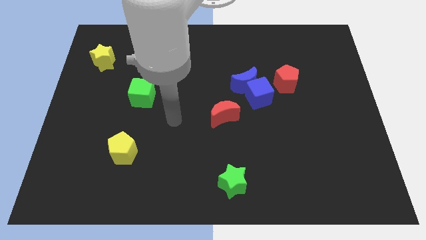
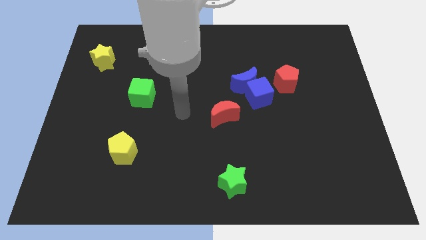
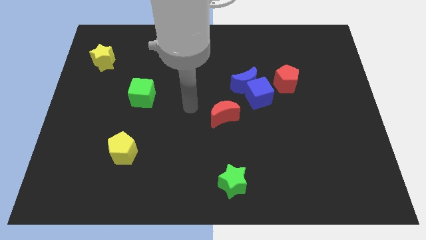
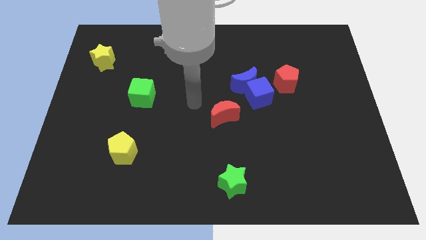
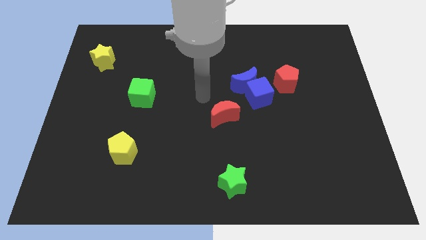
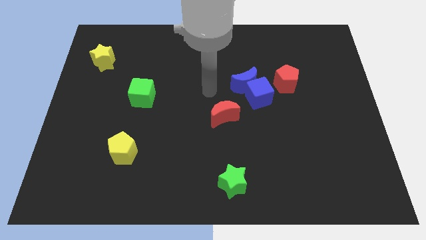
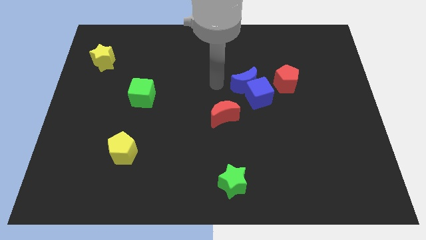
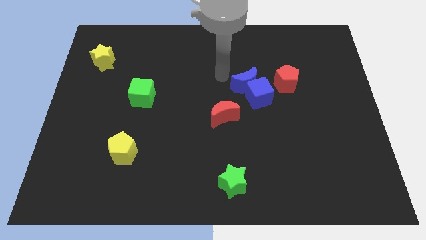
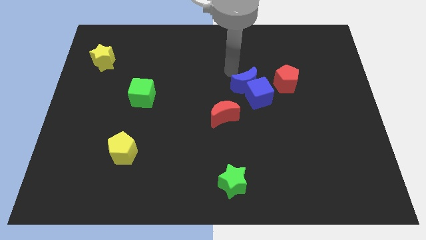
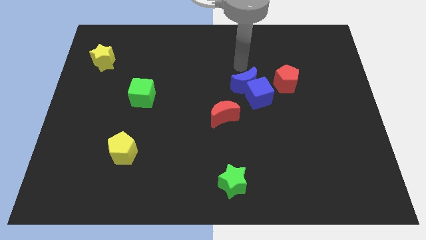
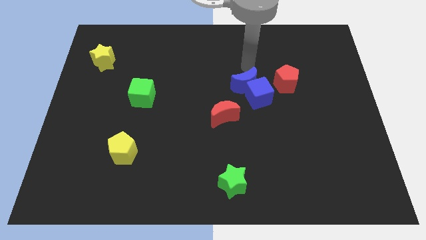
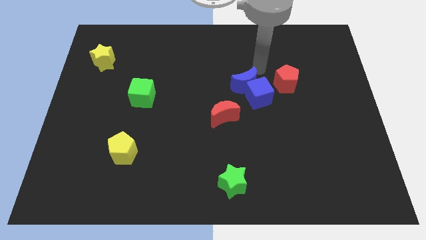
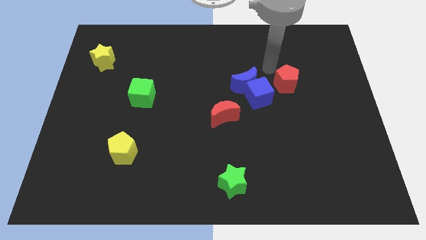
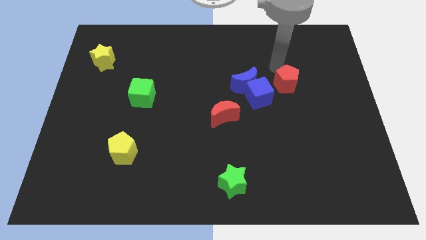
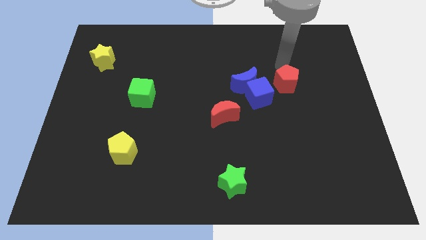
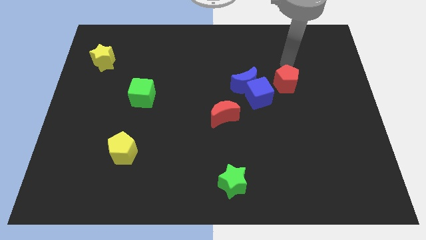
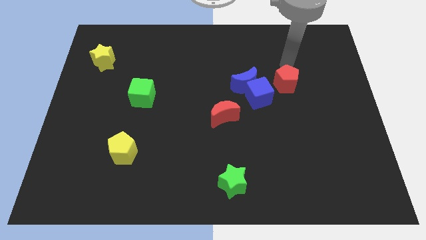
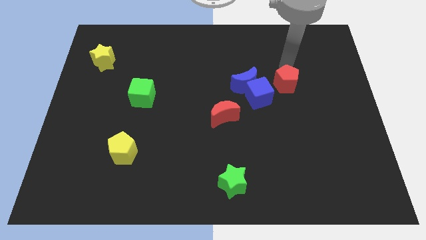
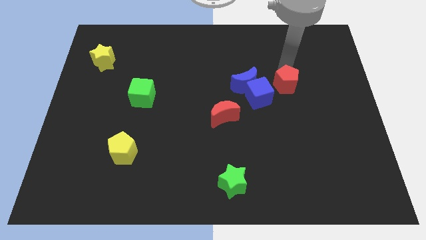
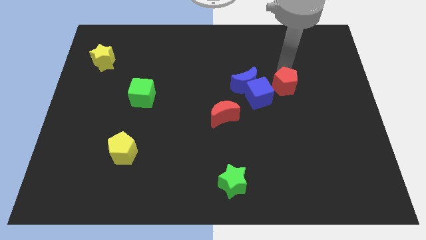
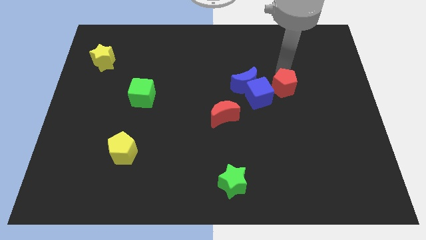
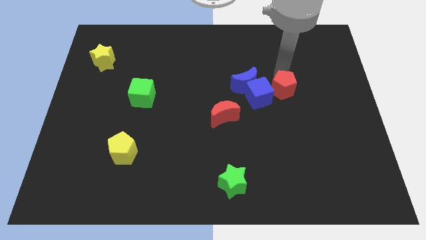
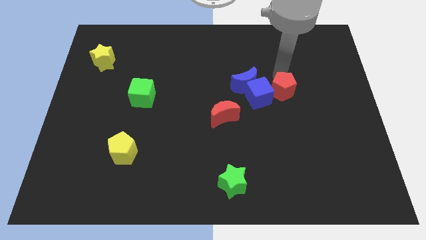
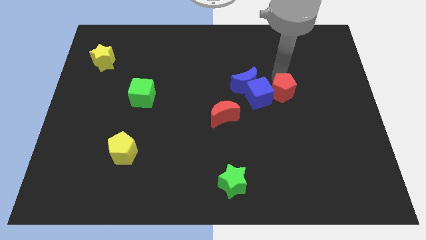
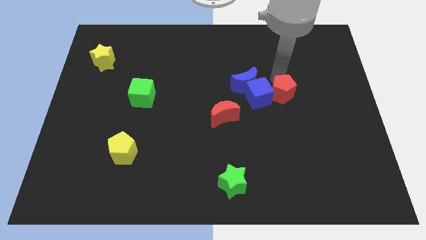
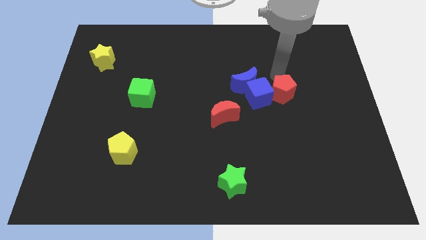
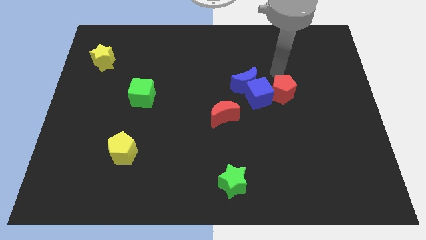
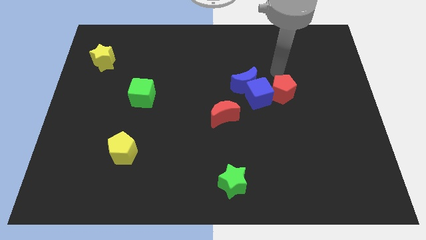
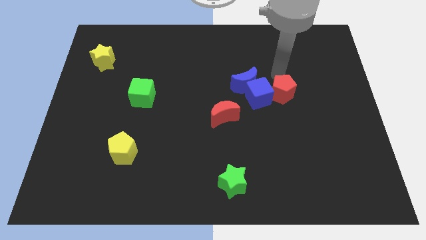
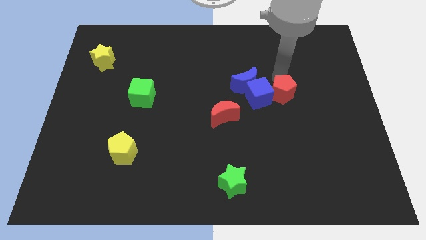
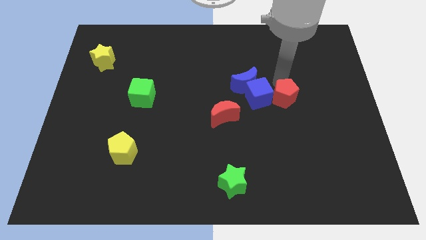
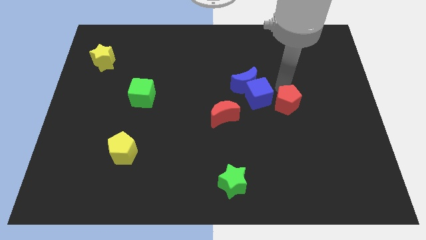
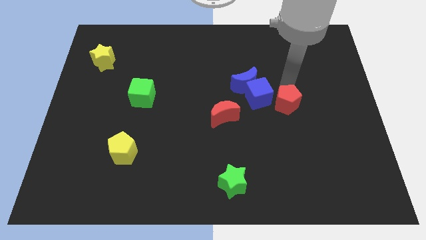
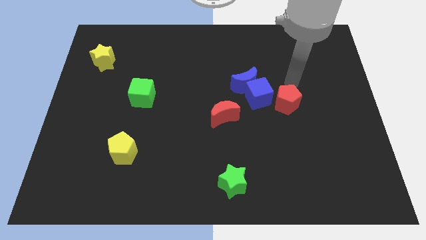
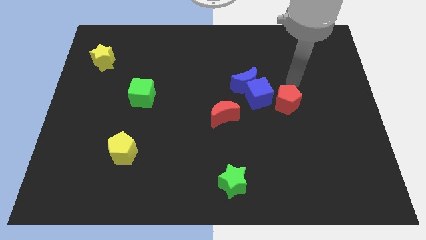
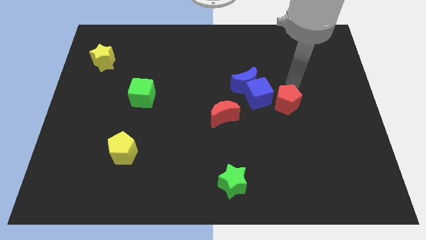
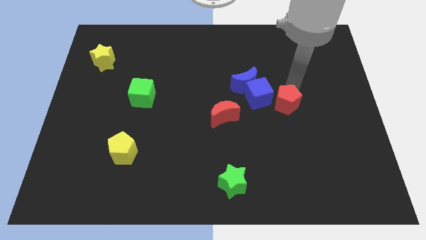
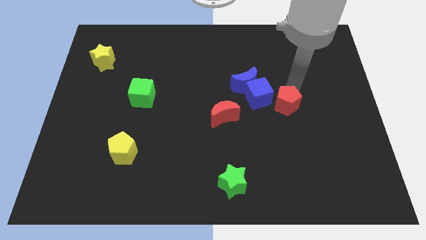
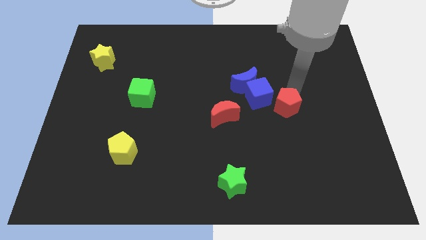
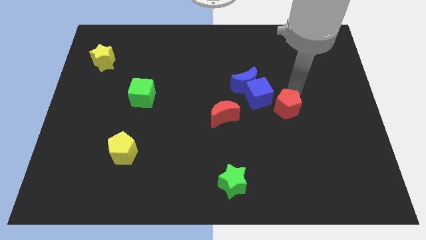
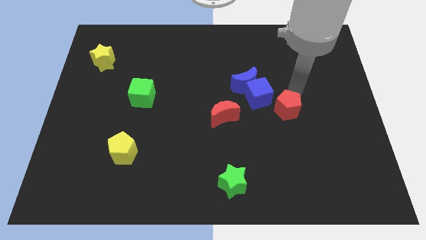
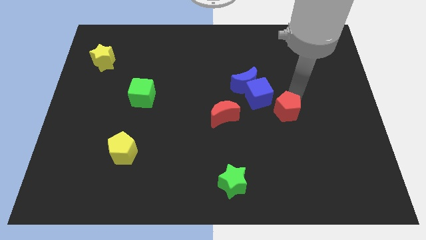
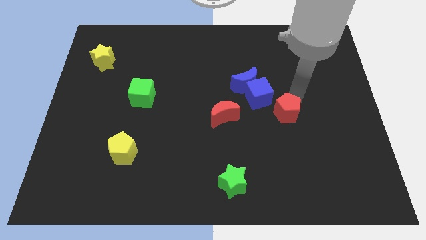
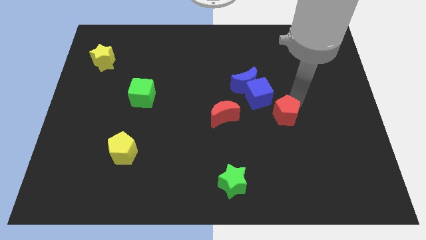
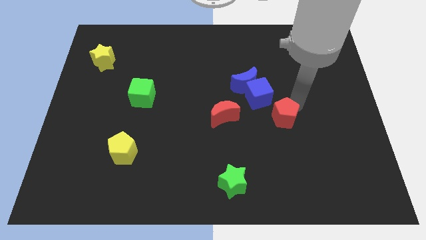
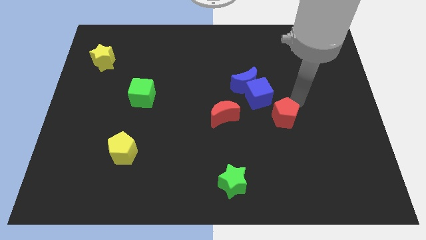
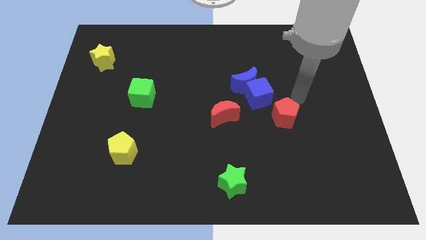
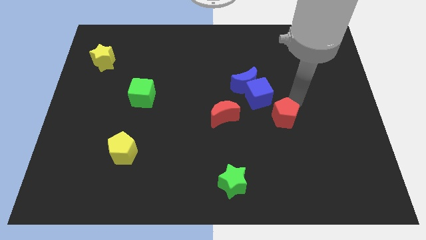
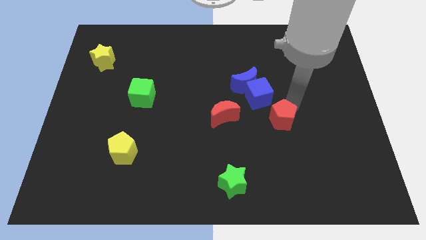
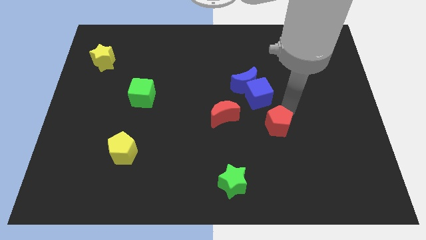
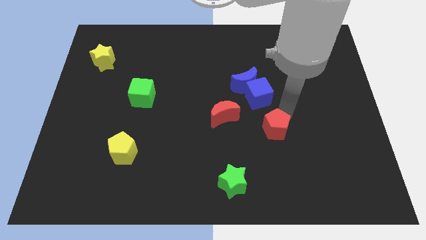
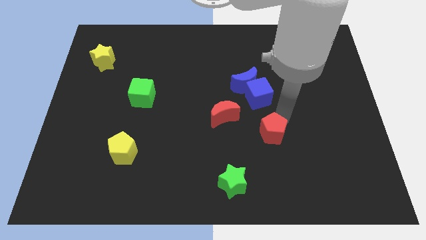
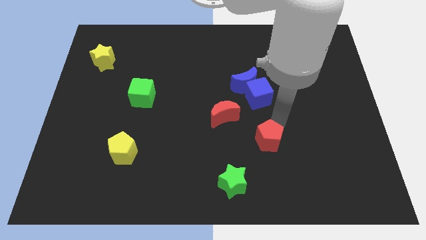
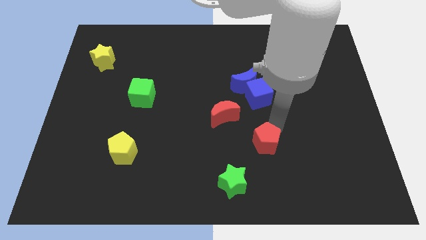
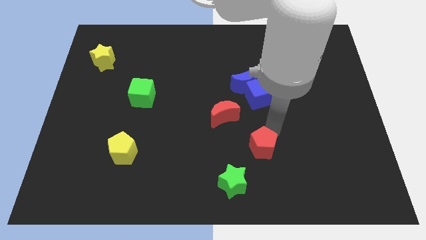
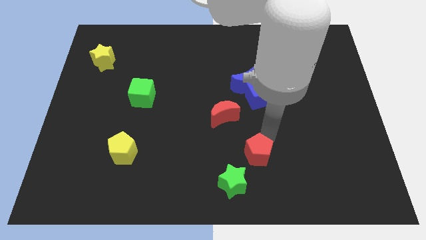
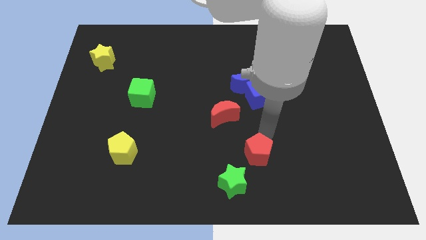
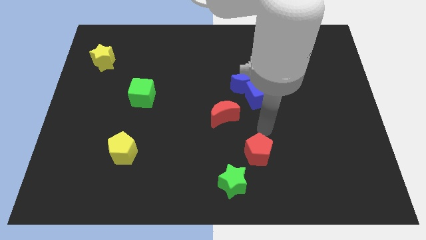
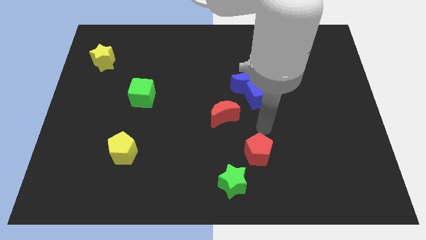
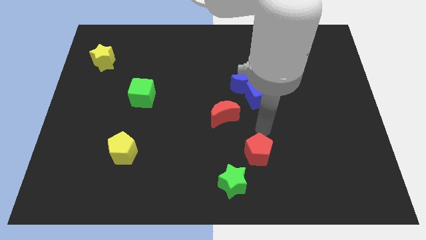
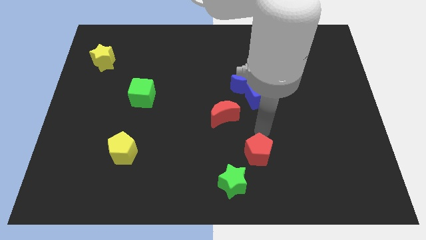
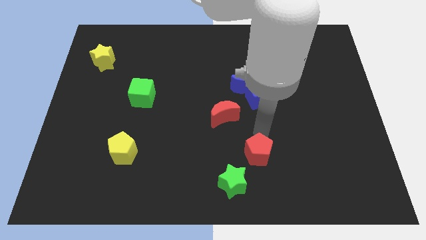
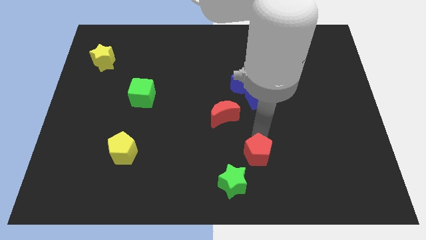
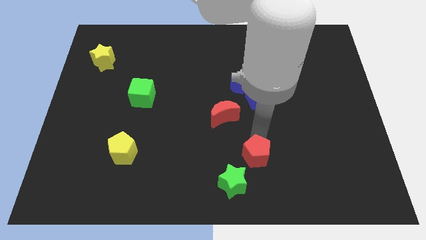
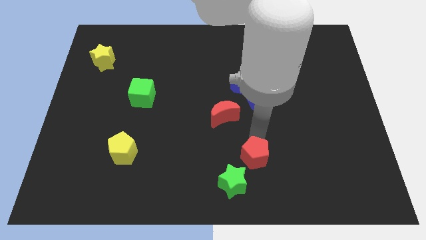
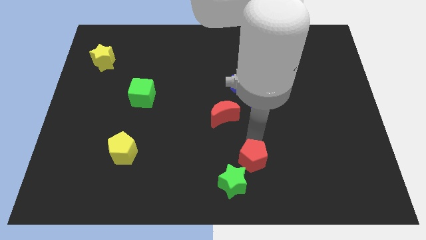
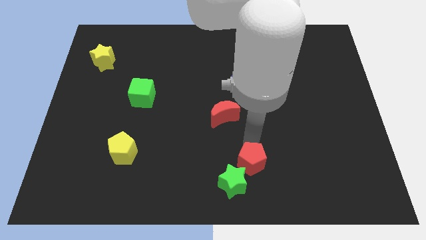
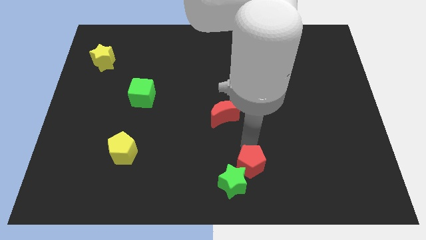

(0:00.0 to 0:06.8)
move the red pentagon to the bottom
